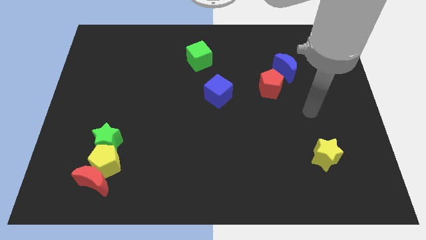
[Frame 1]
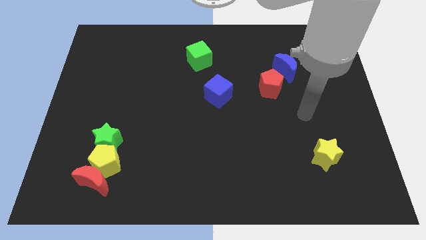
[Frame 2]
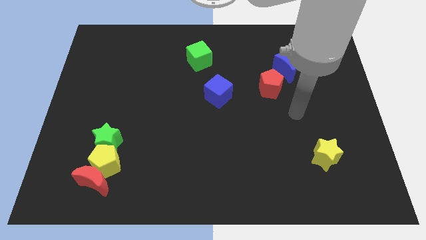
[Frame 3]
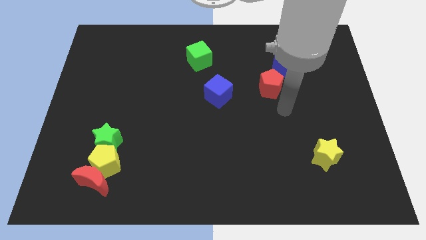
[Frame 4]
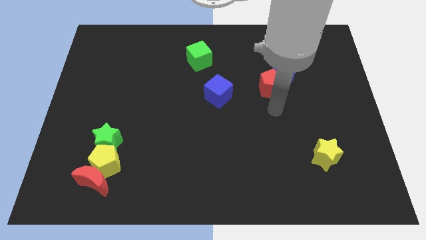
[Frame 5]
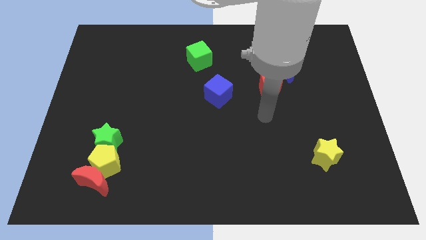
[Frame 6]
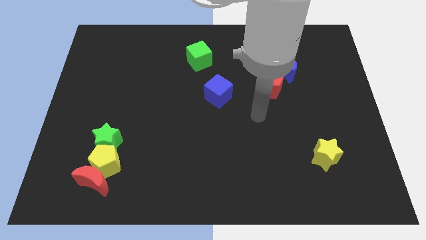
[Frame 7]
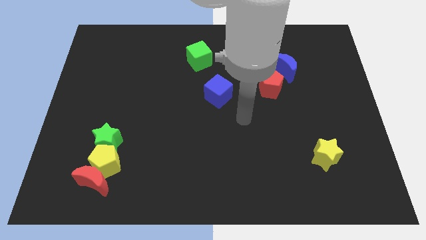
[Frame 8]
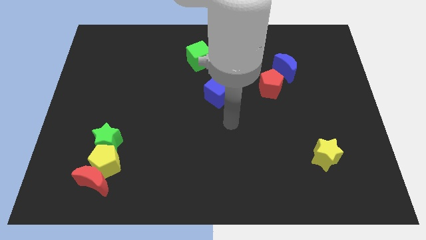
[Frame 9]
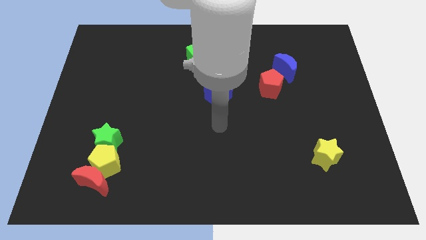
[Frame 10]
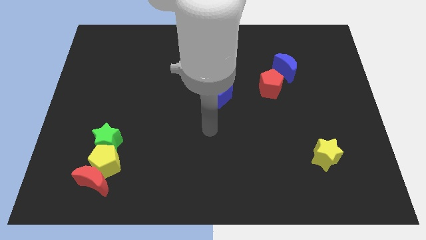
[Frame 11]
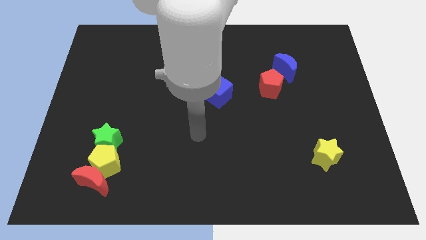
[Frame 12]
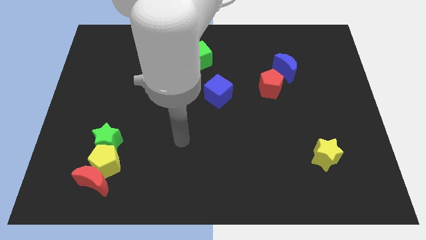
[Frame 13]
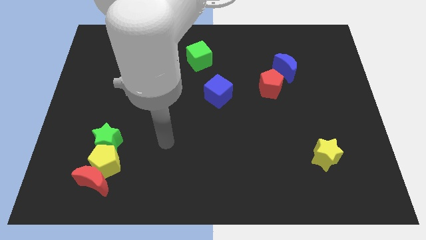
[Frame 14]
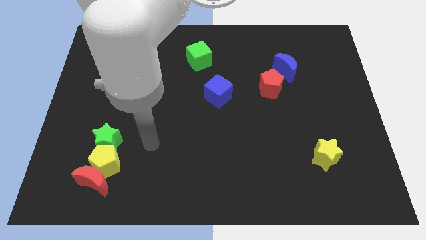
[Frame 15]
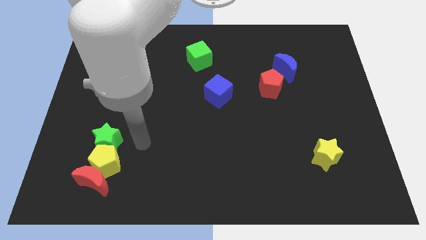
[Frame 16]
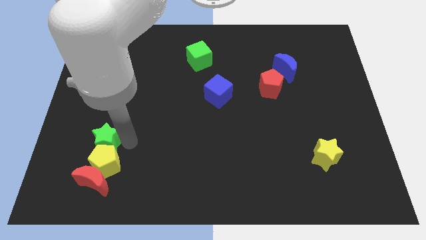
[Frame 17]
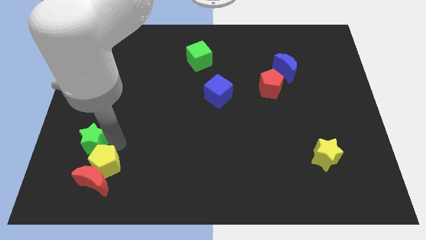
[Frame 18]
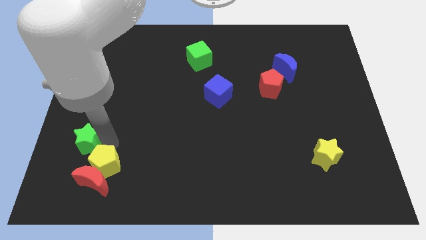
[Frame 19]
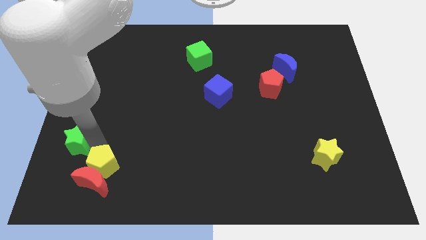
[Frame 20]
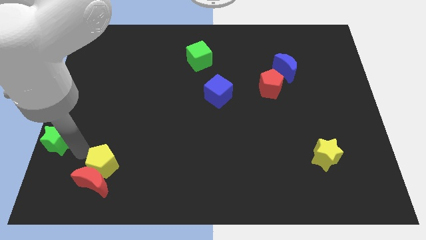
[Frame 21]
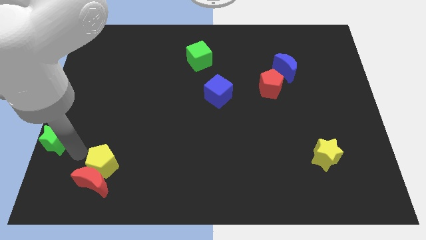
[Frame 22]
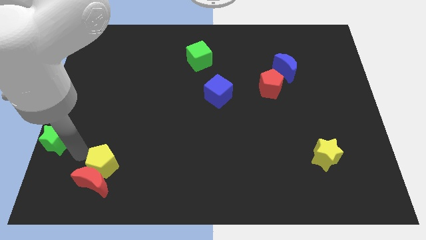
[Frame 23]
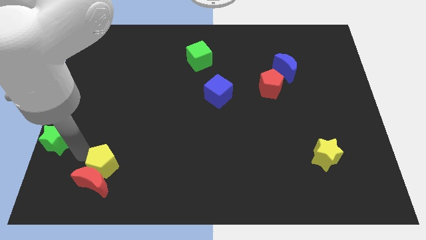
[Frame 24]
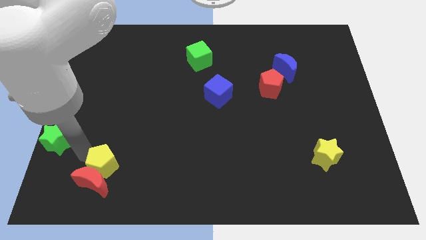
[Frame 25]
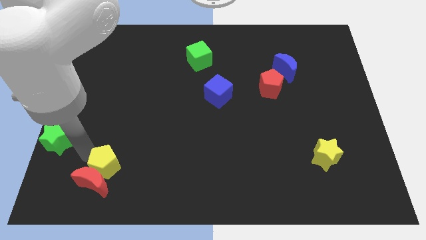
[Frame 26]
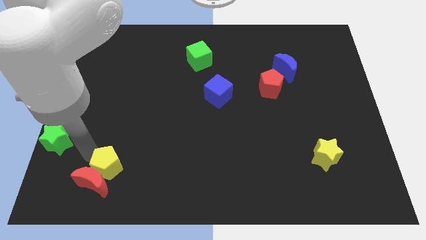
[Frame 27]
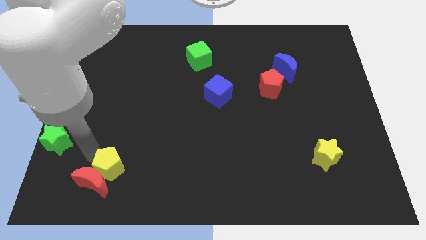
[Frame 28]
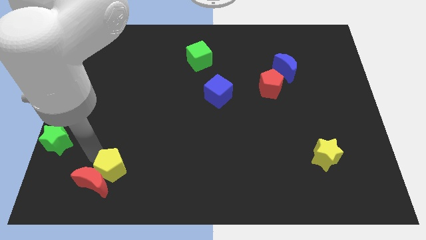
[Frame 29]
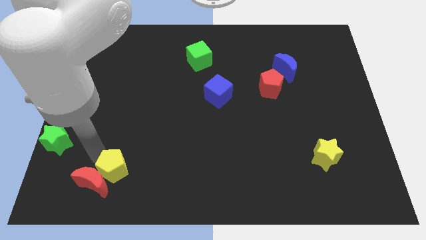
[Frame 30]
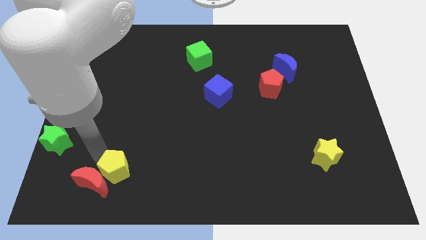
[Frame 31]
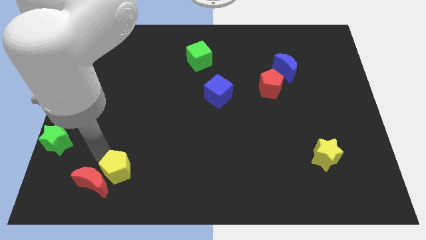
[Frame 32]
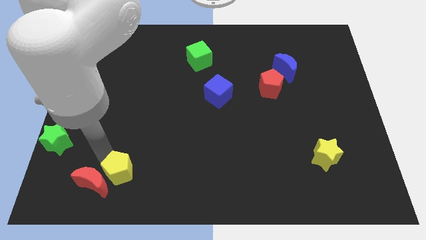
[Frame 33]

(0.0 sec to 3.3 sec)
separate the yellow pentagon from the red moon and green star

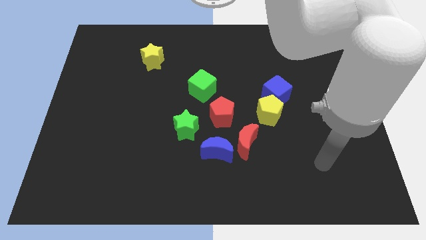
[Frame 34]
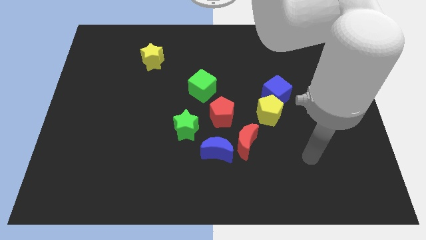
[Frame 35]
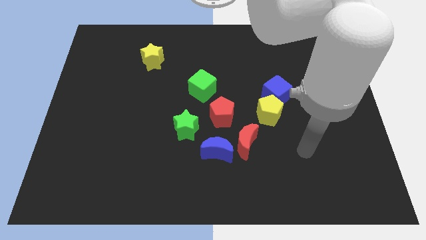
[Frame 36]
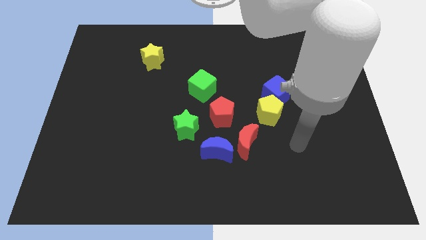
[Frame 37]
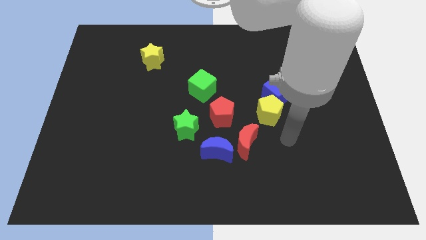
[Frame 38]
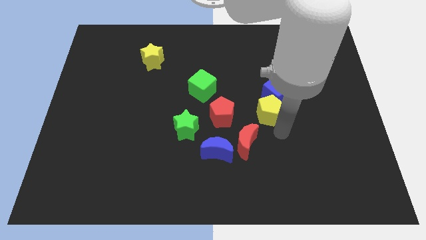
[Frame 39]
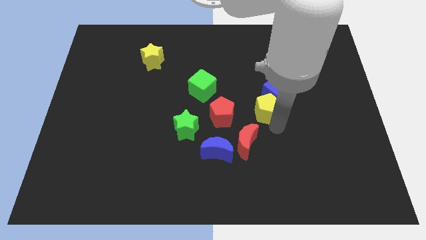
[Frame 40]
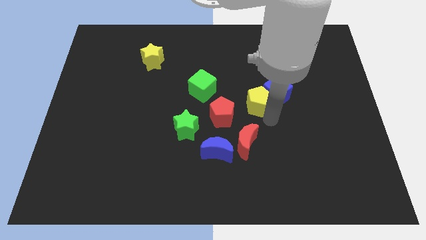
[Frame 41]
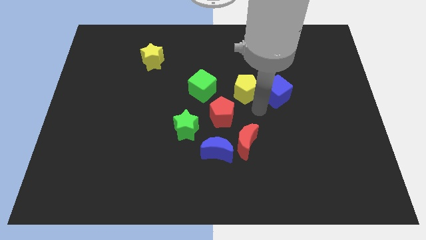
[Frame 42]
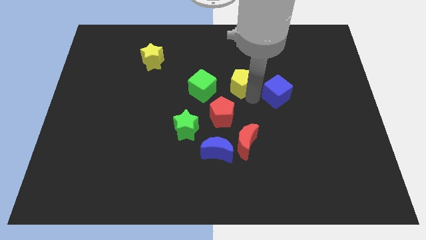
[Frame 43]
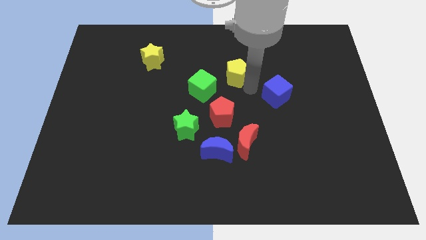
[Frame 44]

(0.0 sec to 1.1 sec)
move the blue cube away from the yellow pentagon

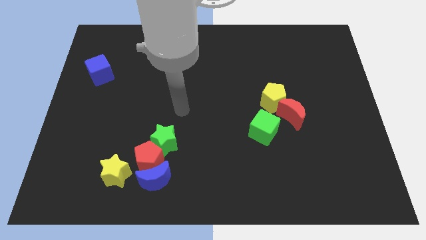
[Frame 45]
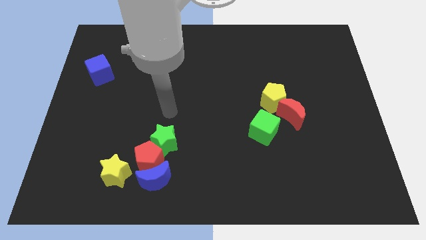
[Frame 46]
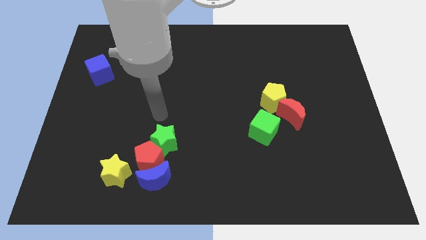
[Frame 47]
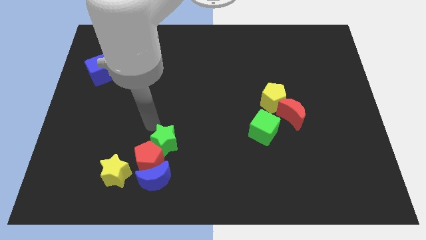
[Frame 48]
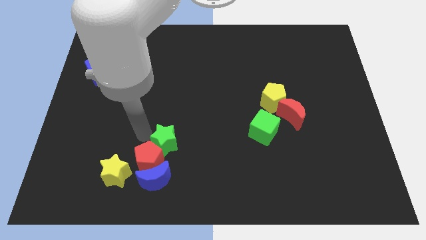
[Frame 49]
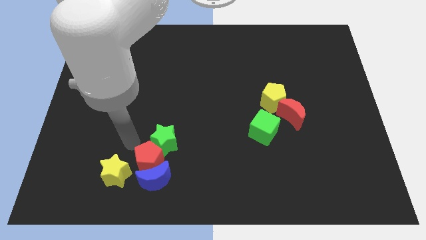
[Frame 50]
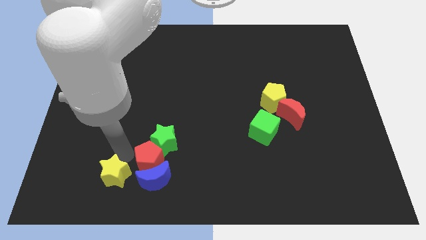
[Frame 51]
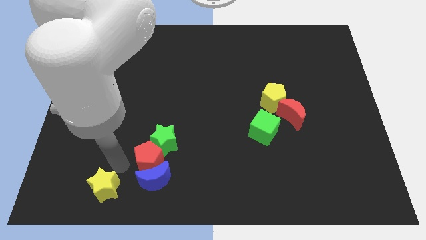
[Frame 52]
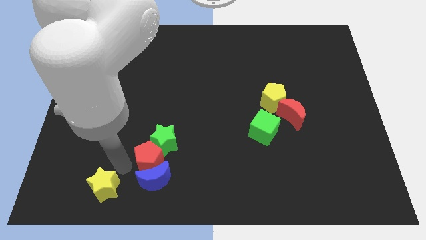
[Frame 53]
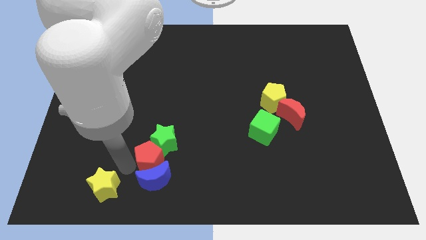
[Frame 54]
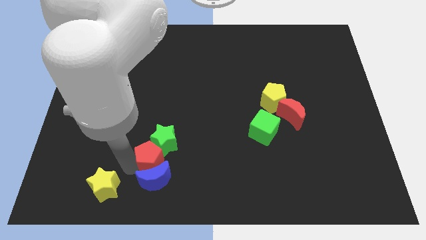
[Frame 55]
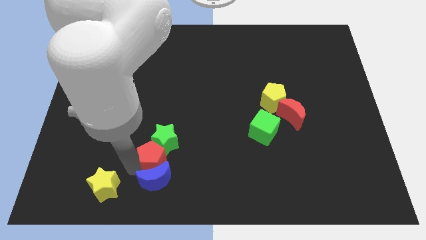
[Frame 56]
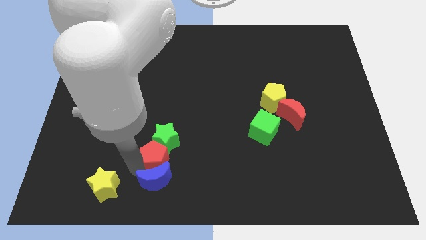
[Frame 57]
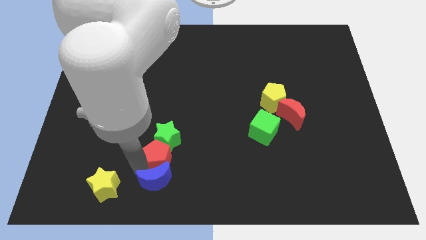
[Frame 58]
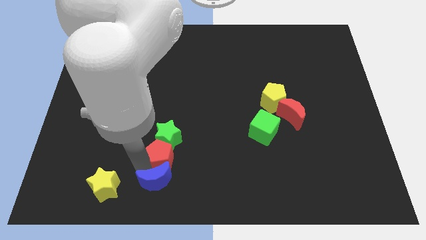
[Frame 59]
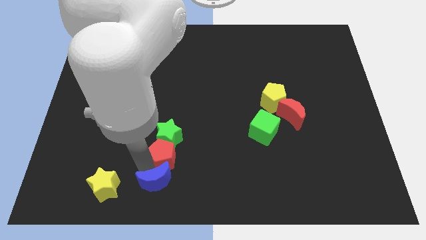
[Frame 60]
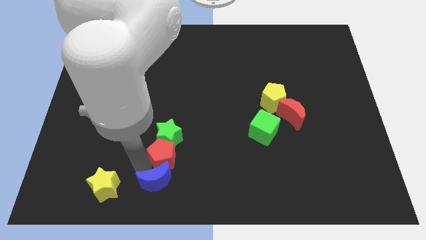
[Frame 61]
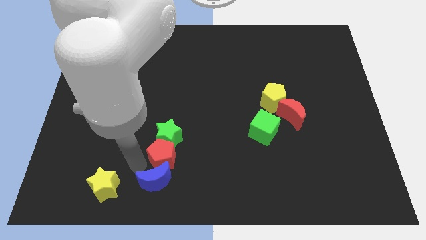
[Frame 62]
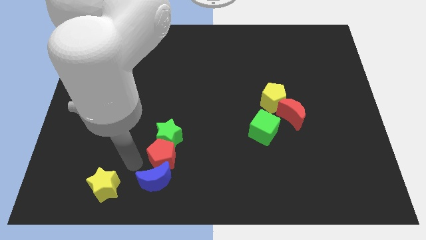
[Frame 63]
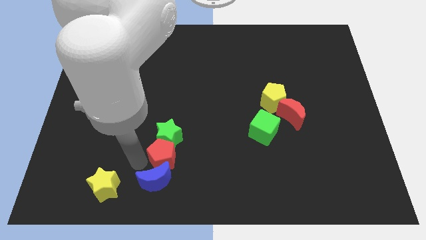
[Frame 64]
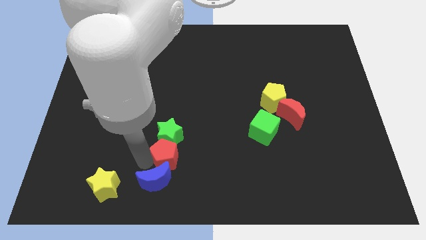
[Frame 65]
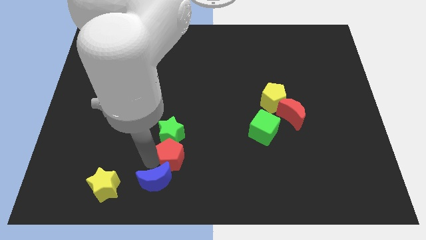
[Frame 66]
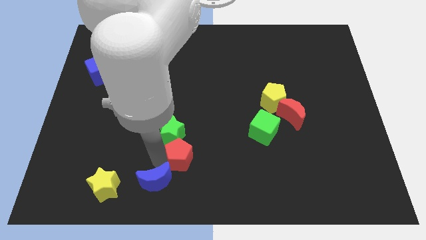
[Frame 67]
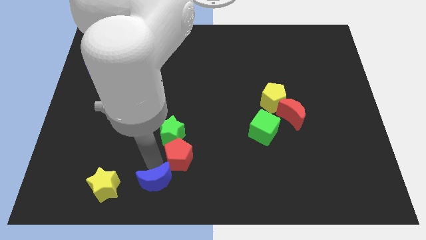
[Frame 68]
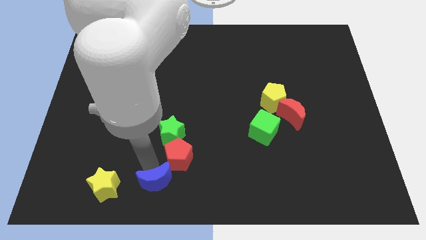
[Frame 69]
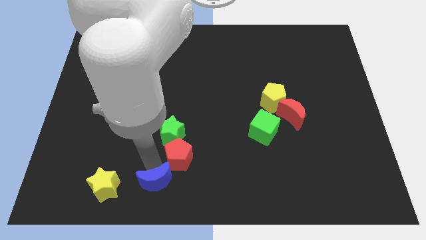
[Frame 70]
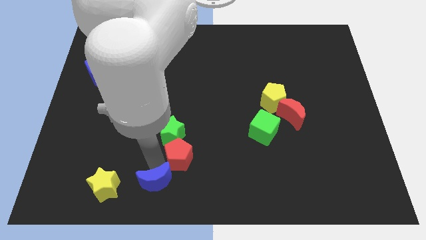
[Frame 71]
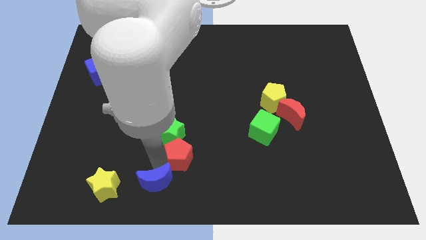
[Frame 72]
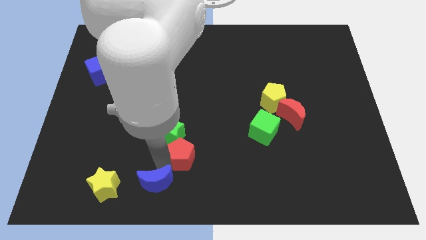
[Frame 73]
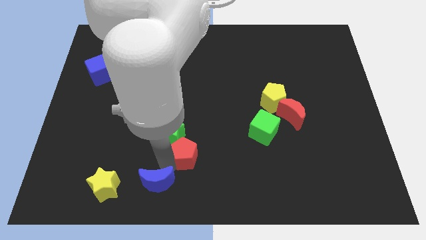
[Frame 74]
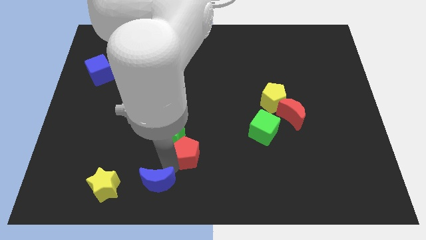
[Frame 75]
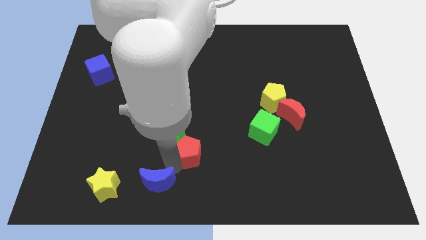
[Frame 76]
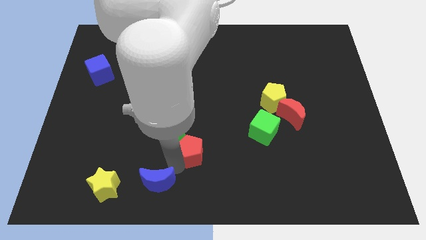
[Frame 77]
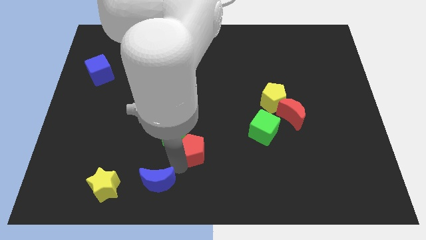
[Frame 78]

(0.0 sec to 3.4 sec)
separate the red pentagon from the clump

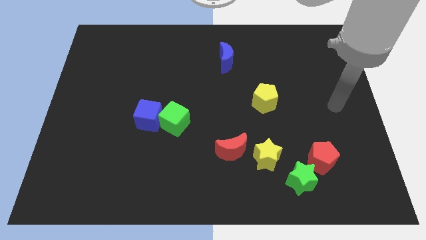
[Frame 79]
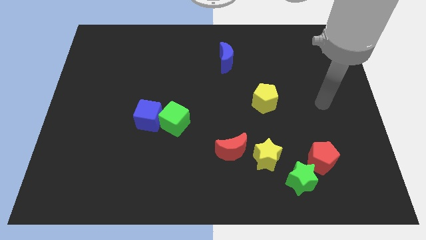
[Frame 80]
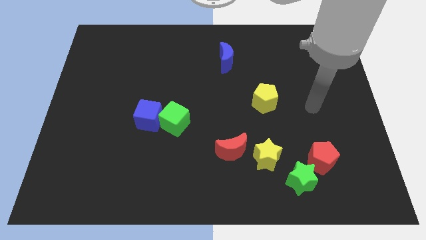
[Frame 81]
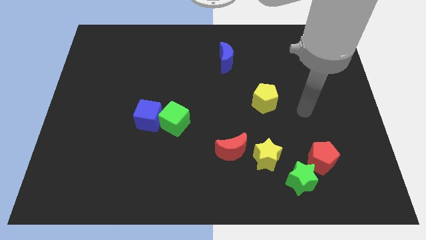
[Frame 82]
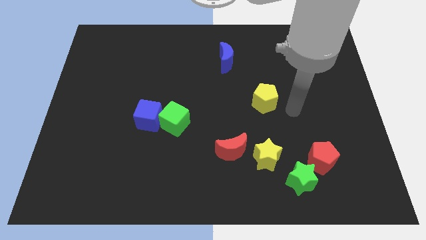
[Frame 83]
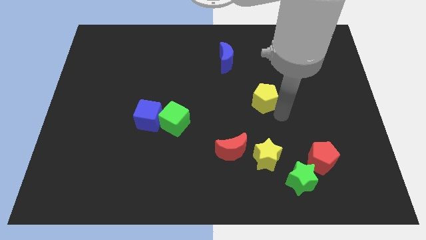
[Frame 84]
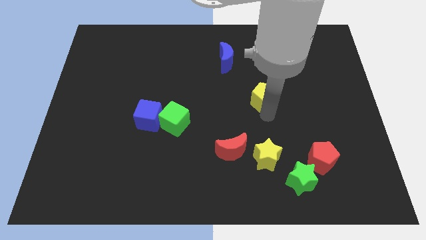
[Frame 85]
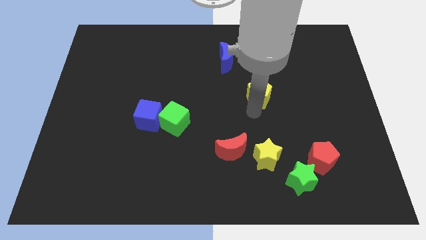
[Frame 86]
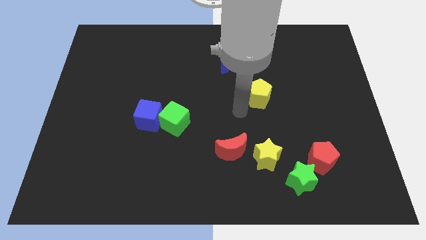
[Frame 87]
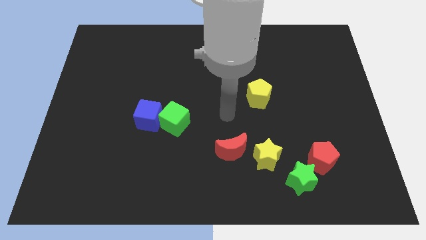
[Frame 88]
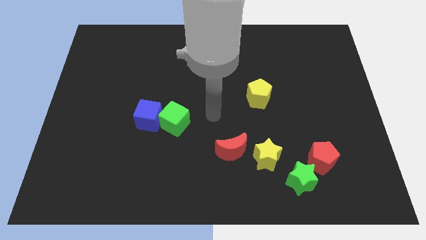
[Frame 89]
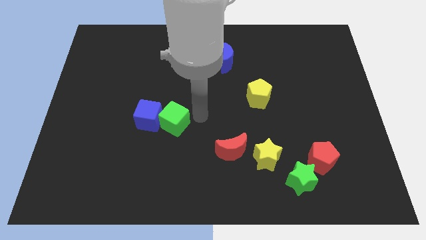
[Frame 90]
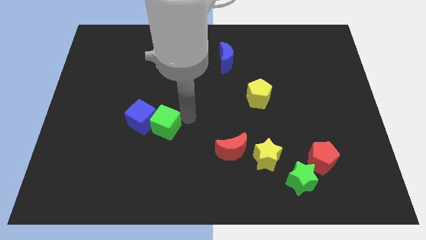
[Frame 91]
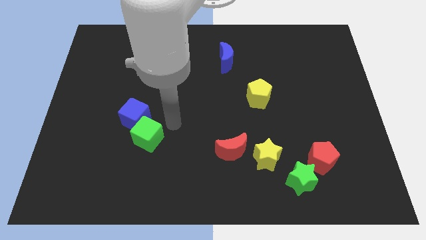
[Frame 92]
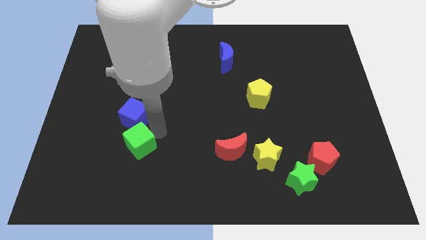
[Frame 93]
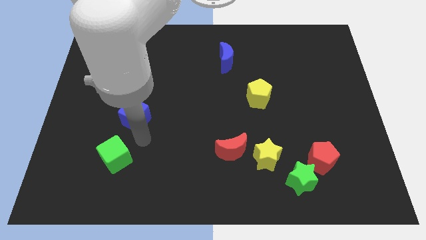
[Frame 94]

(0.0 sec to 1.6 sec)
separate the blue cube from the green cube

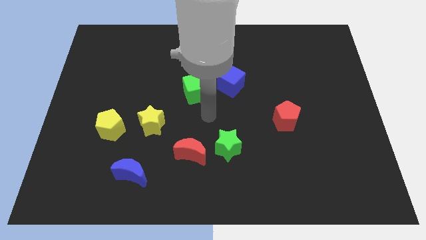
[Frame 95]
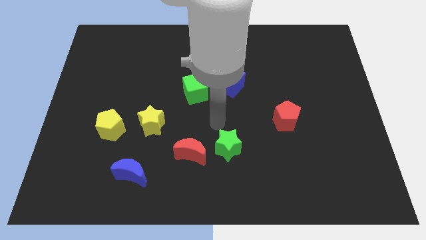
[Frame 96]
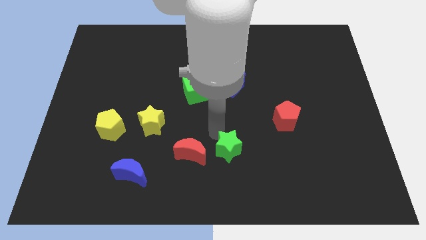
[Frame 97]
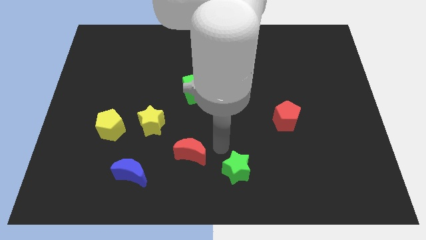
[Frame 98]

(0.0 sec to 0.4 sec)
move the red moon away from the green star
